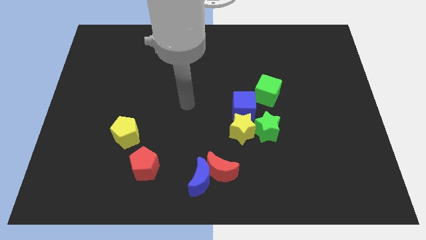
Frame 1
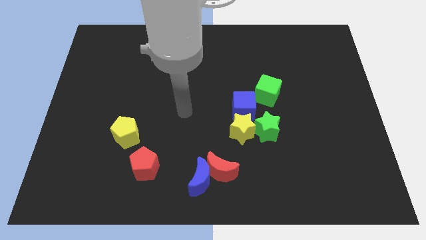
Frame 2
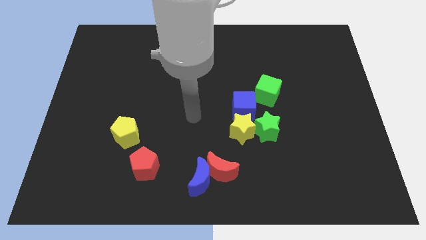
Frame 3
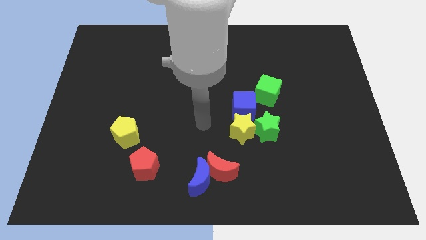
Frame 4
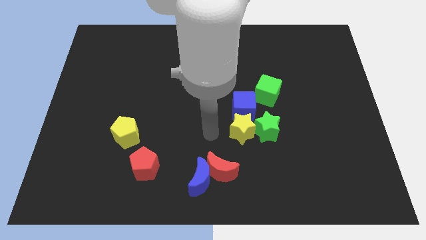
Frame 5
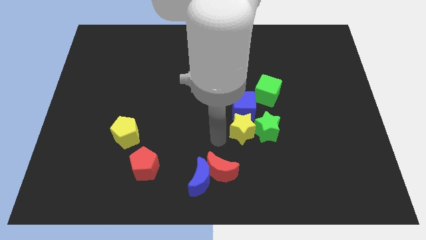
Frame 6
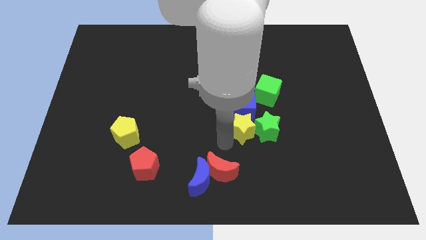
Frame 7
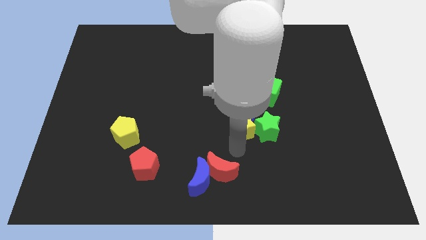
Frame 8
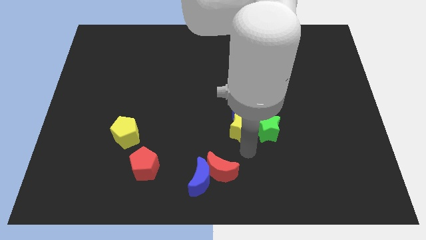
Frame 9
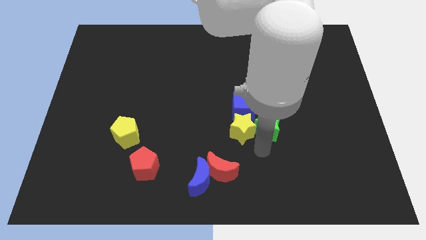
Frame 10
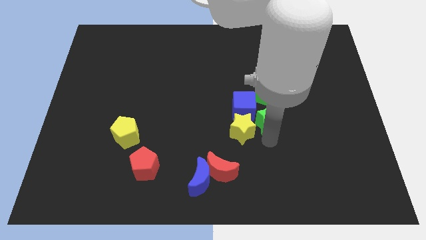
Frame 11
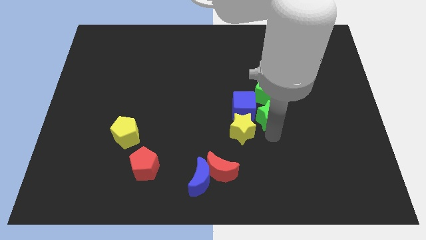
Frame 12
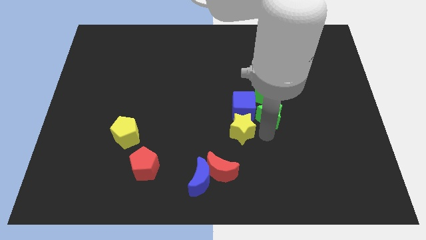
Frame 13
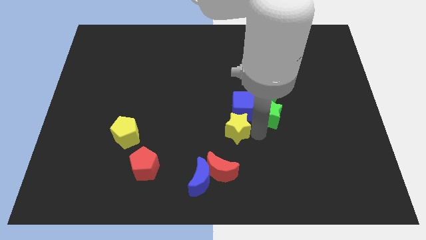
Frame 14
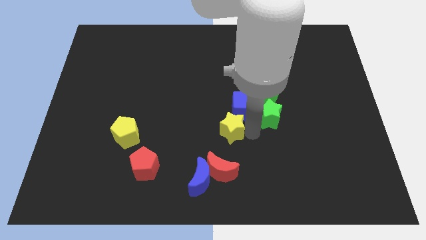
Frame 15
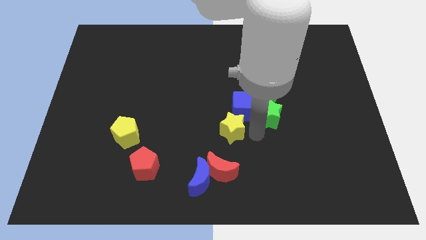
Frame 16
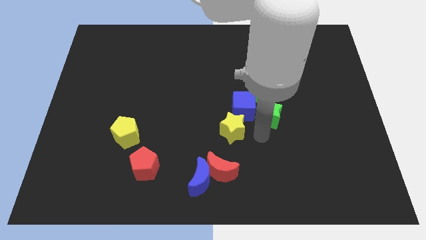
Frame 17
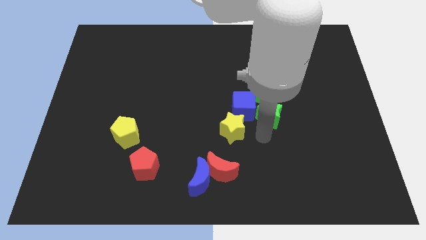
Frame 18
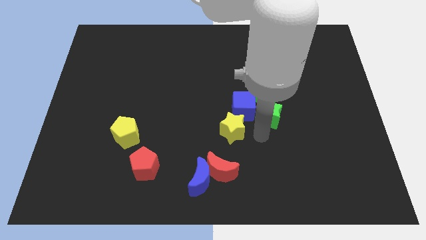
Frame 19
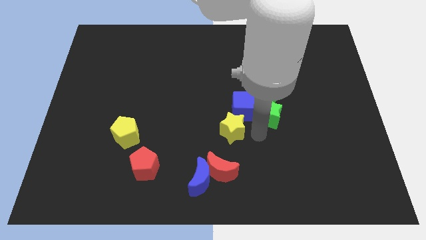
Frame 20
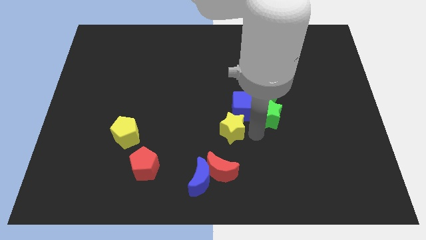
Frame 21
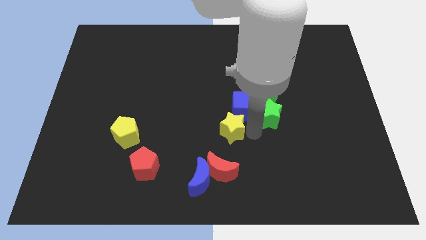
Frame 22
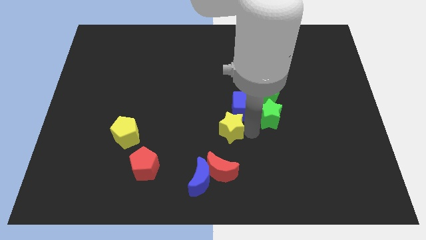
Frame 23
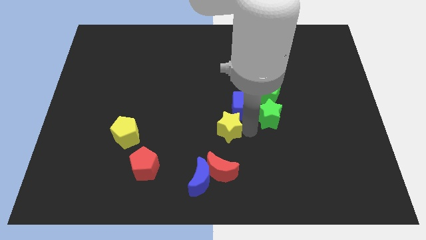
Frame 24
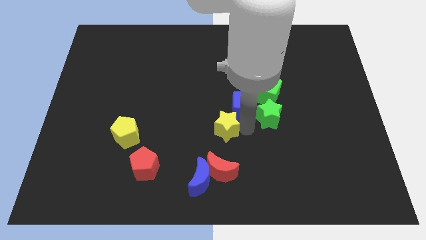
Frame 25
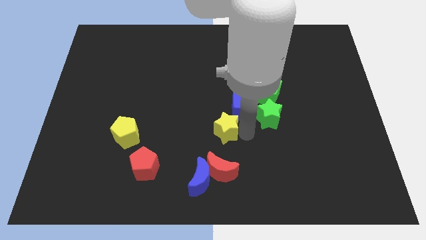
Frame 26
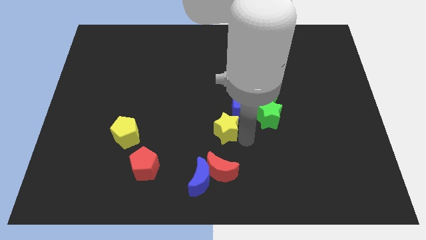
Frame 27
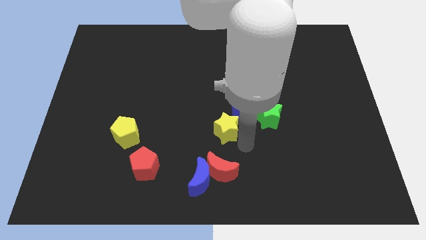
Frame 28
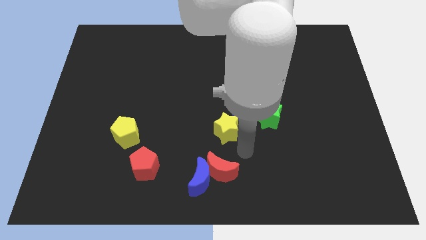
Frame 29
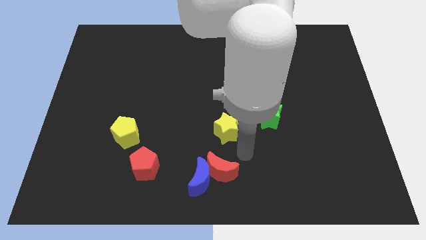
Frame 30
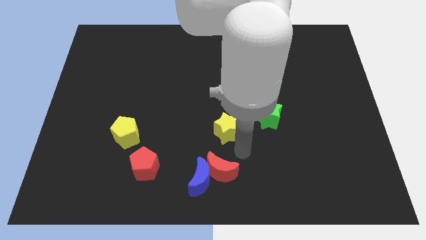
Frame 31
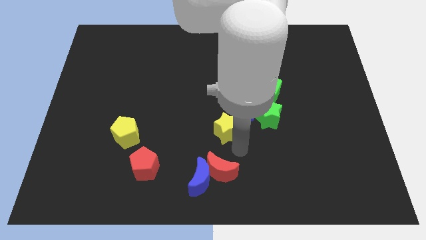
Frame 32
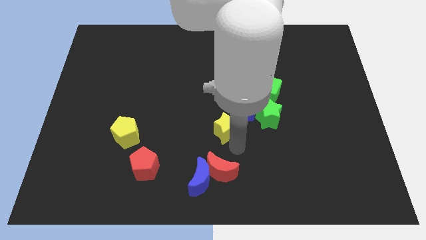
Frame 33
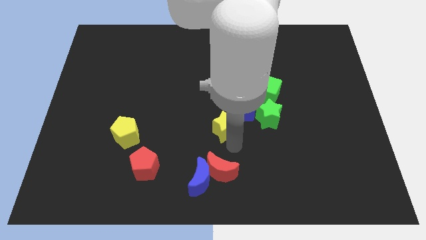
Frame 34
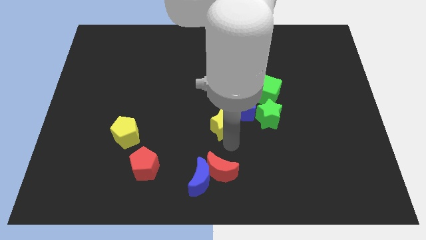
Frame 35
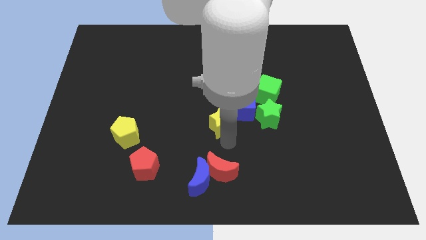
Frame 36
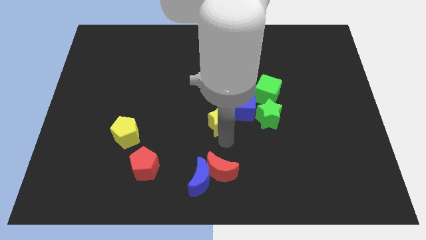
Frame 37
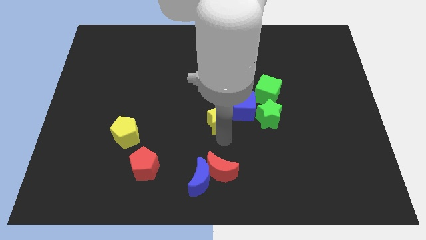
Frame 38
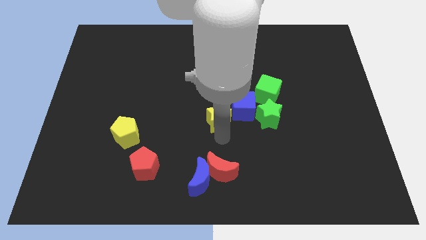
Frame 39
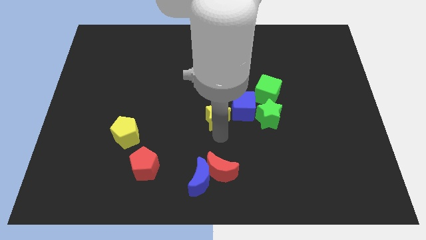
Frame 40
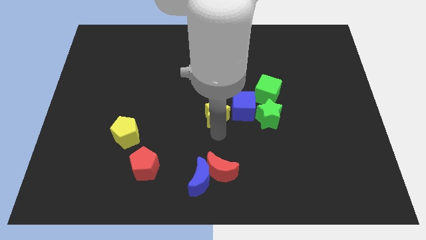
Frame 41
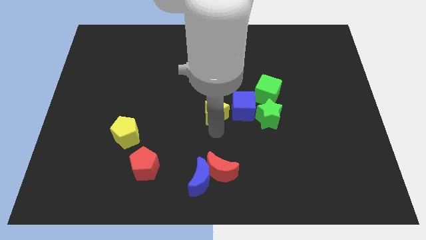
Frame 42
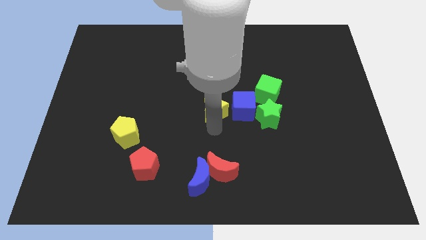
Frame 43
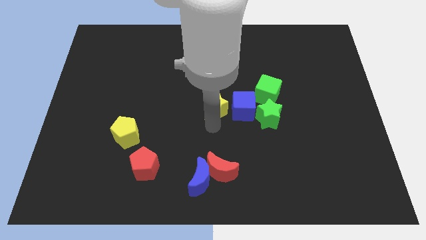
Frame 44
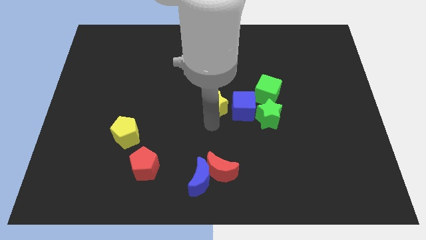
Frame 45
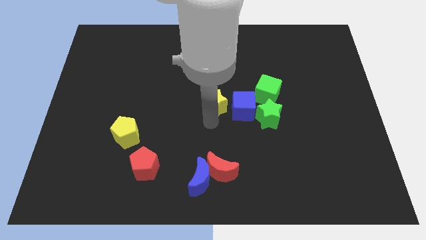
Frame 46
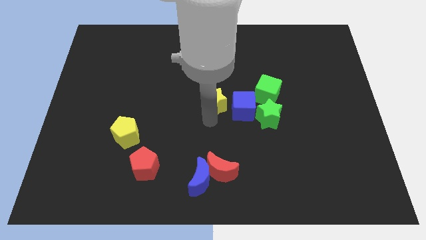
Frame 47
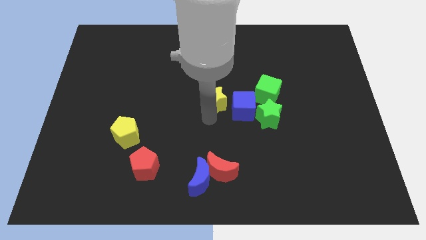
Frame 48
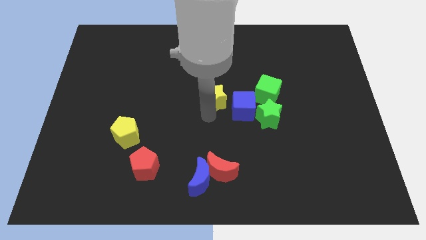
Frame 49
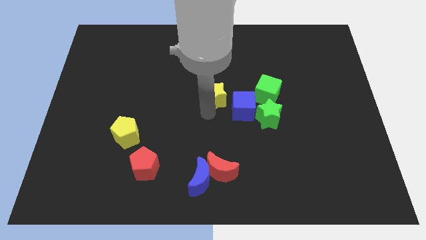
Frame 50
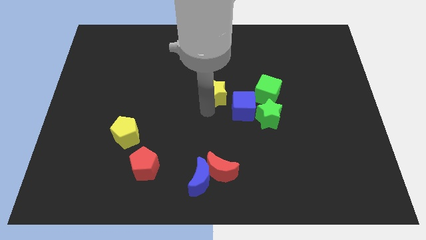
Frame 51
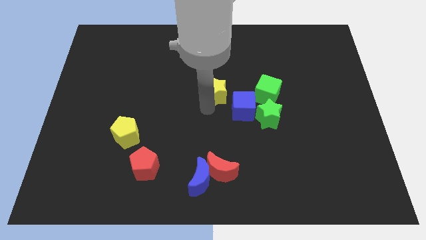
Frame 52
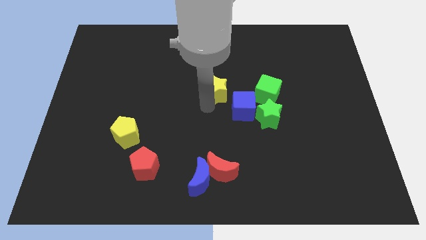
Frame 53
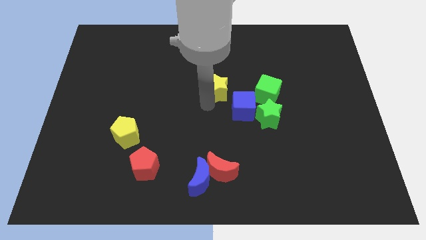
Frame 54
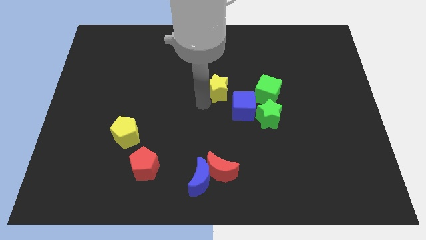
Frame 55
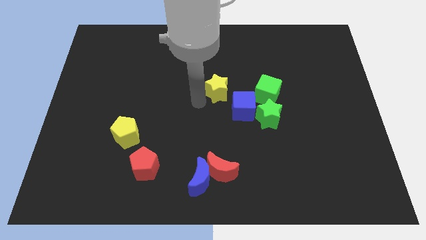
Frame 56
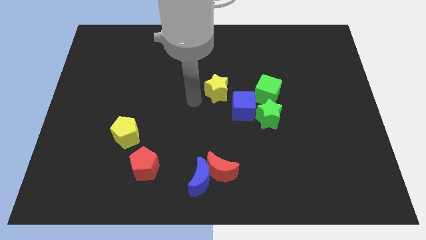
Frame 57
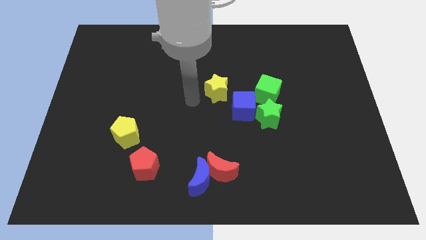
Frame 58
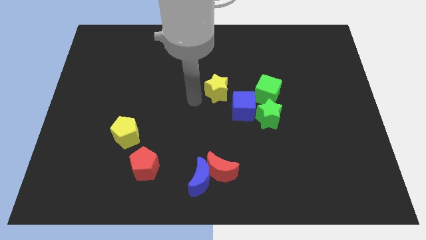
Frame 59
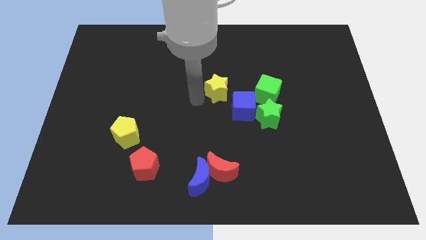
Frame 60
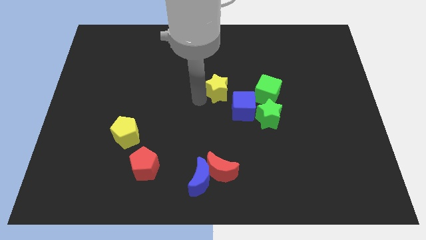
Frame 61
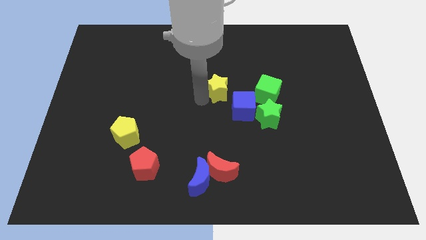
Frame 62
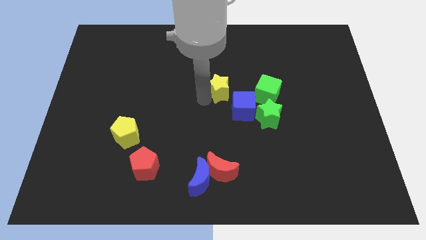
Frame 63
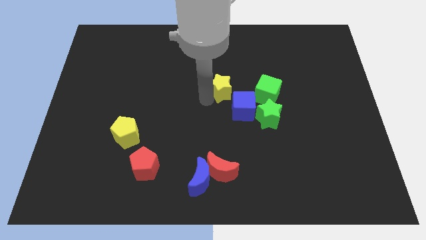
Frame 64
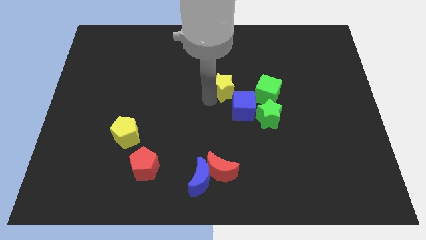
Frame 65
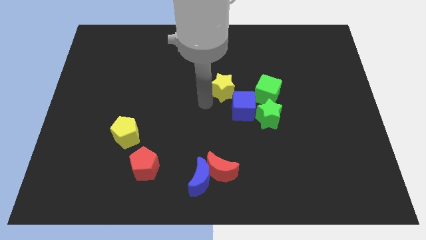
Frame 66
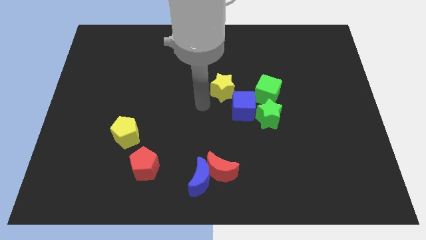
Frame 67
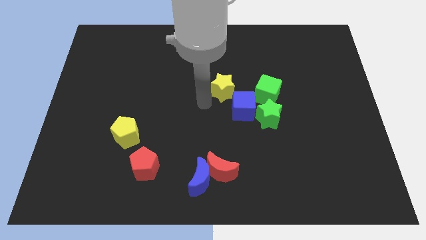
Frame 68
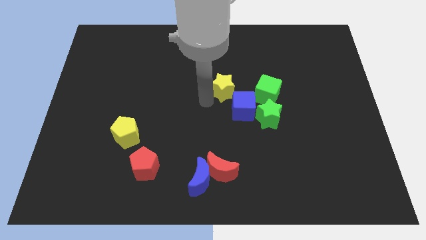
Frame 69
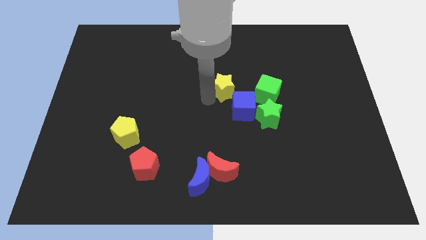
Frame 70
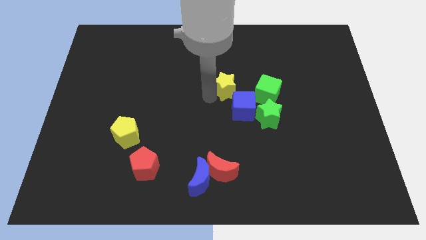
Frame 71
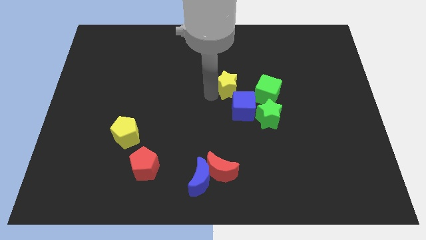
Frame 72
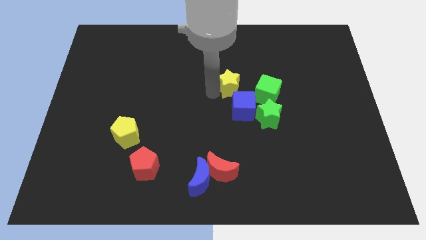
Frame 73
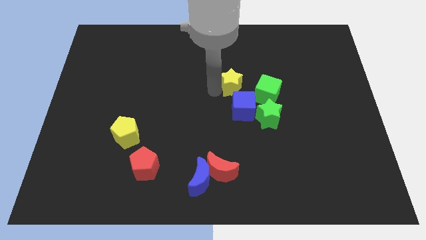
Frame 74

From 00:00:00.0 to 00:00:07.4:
move the yellow star to the top left side of the green cube
